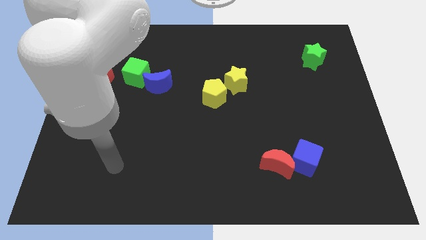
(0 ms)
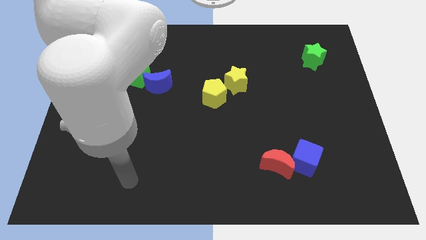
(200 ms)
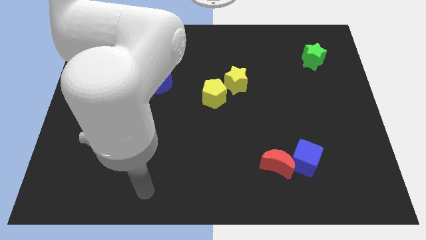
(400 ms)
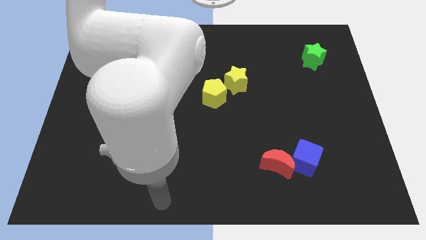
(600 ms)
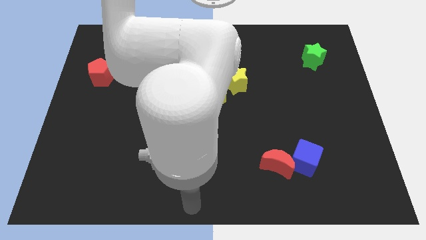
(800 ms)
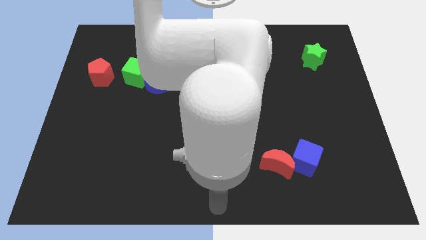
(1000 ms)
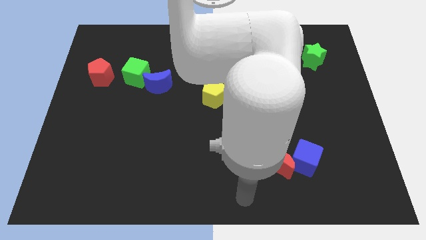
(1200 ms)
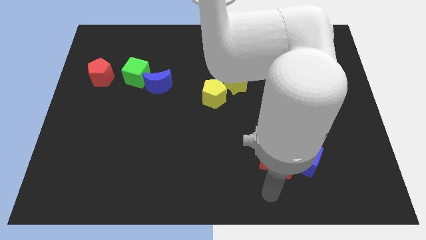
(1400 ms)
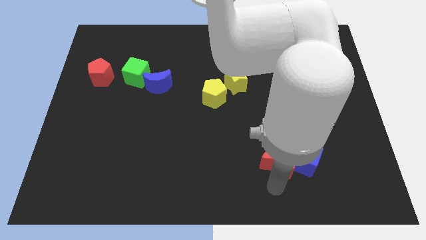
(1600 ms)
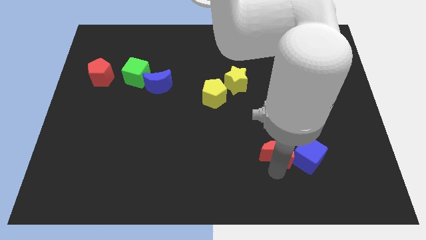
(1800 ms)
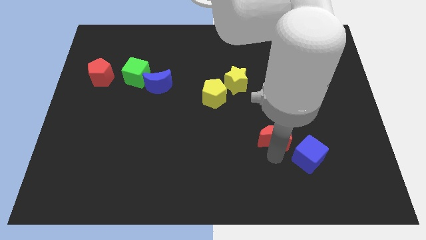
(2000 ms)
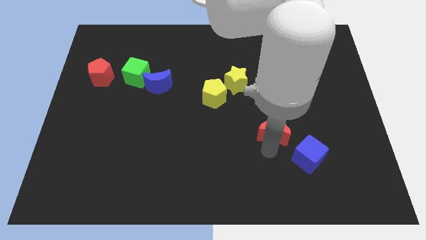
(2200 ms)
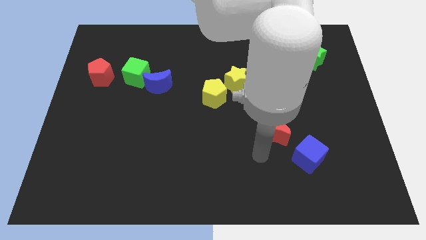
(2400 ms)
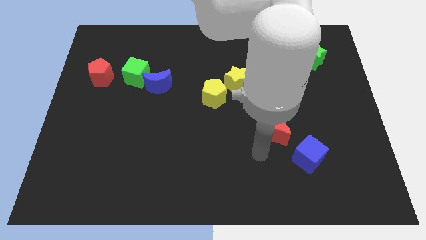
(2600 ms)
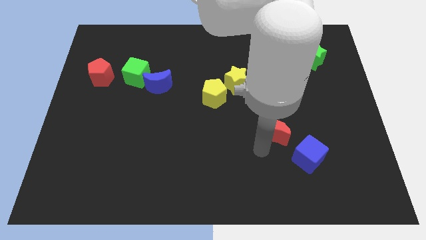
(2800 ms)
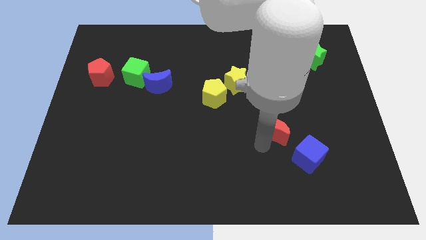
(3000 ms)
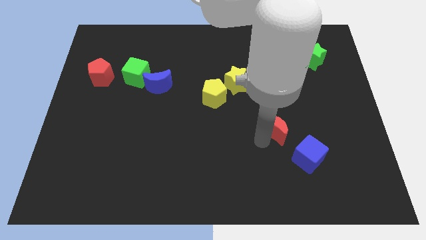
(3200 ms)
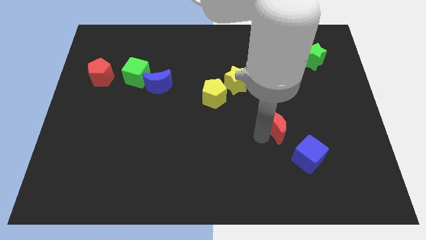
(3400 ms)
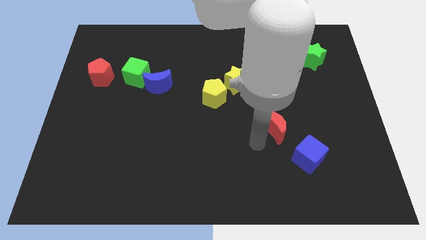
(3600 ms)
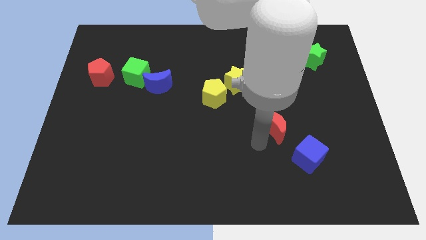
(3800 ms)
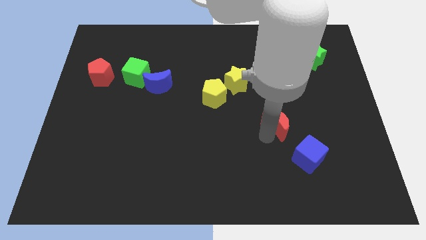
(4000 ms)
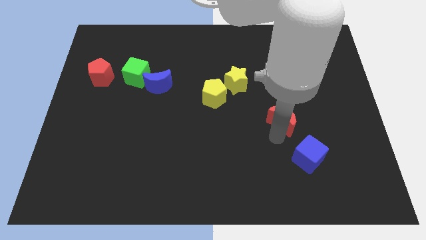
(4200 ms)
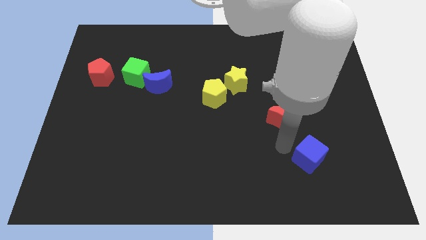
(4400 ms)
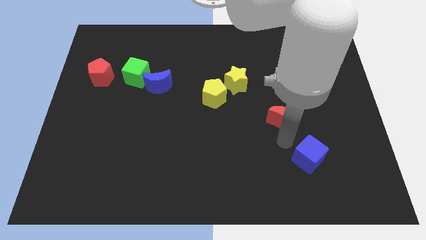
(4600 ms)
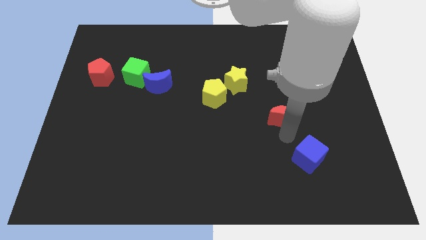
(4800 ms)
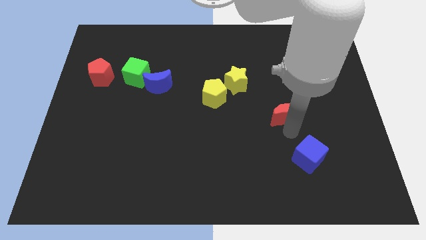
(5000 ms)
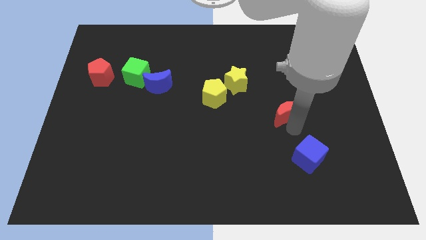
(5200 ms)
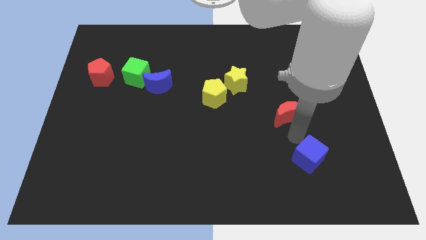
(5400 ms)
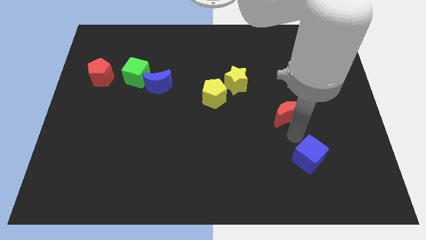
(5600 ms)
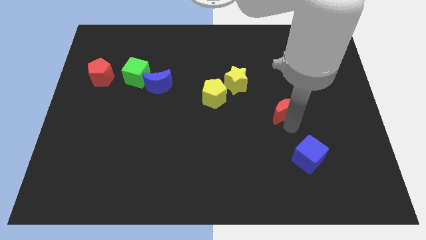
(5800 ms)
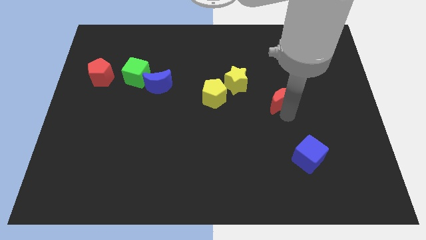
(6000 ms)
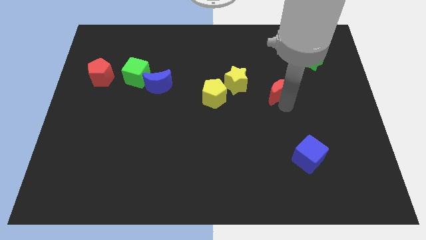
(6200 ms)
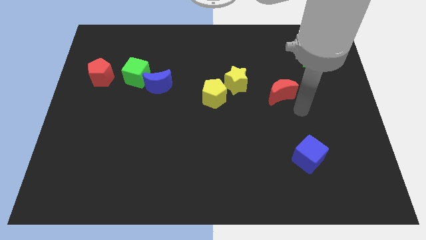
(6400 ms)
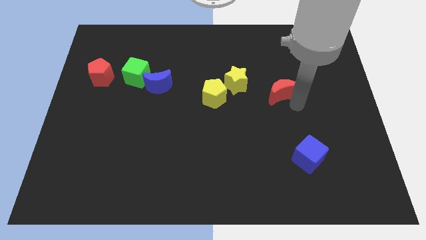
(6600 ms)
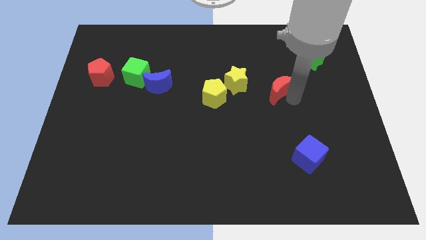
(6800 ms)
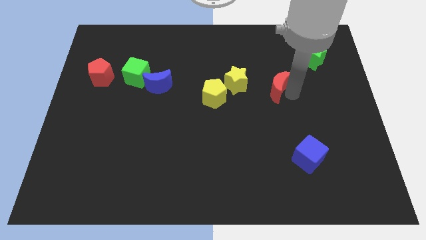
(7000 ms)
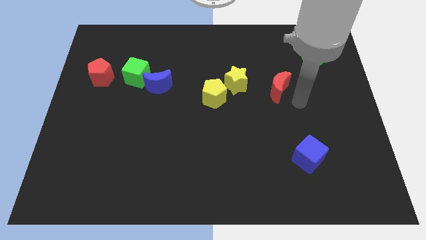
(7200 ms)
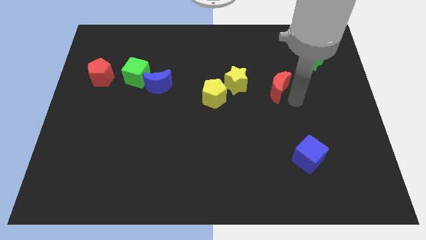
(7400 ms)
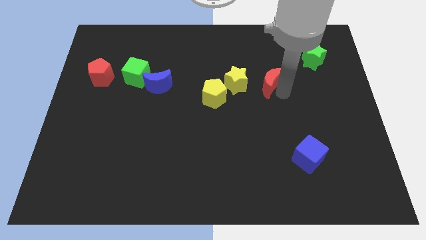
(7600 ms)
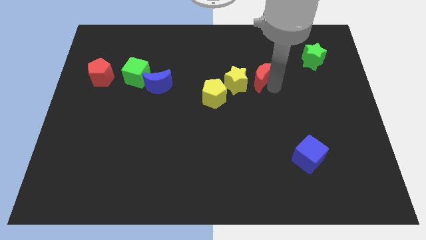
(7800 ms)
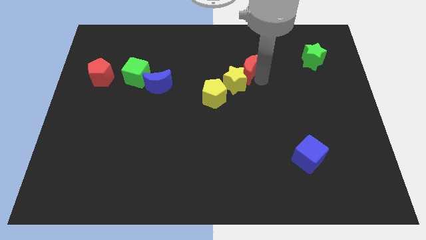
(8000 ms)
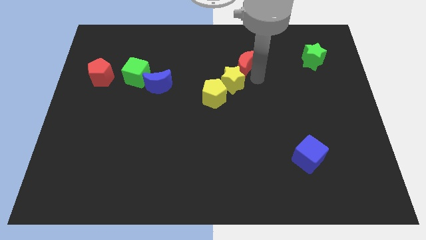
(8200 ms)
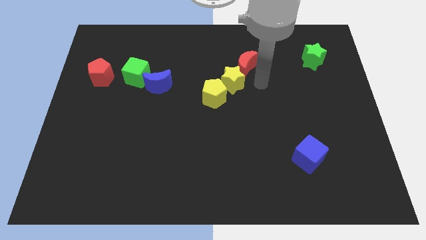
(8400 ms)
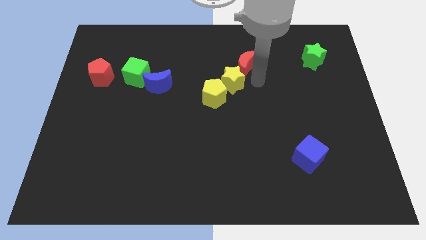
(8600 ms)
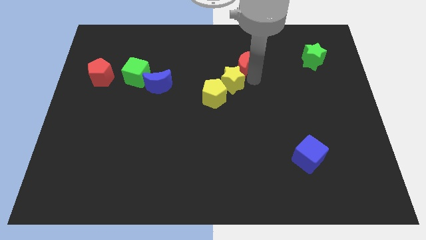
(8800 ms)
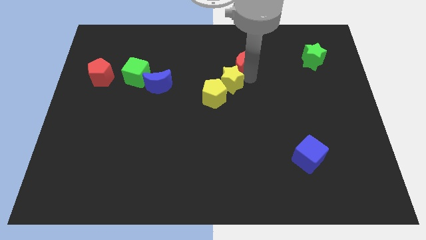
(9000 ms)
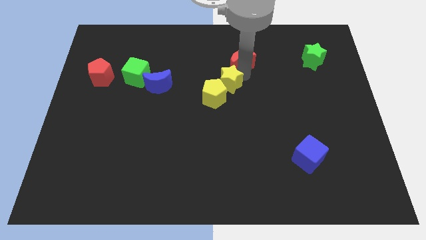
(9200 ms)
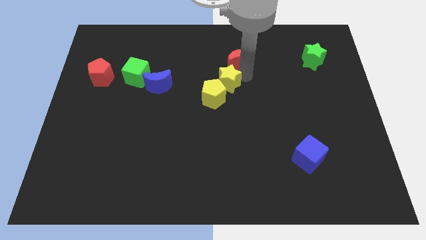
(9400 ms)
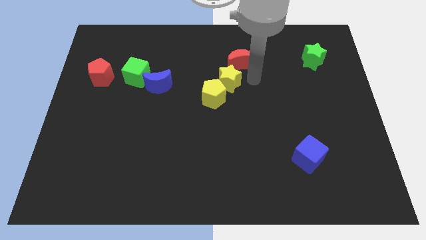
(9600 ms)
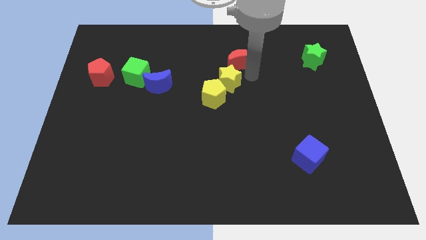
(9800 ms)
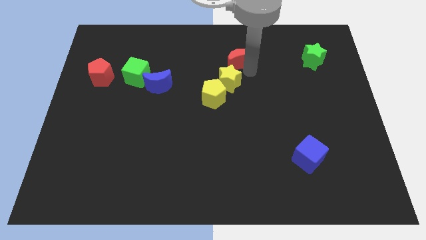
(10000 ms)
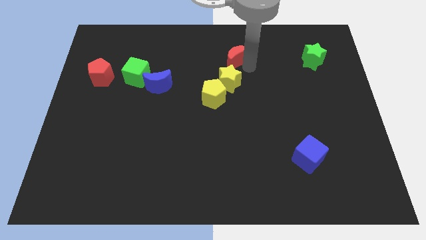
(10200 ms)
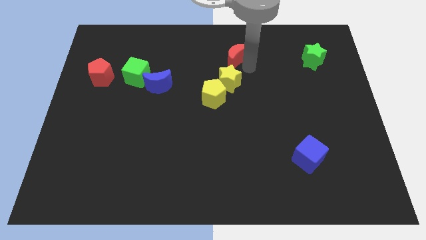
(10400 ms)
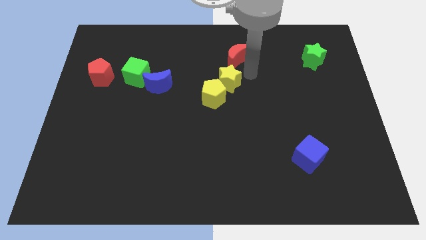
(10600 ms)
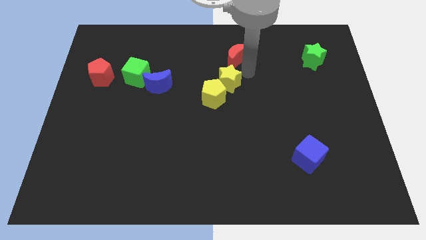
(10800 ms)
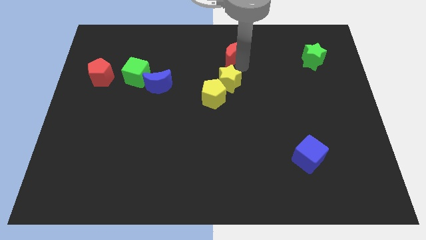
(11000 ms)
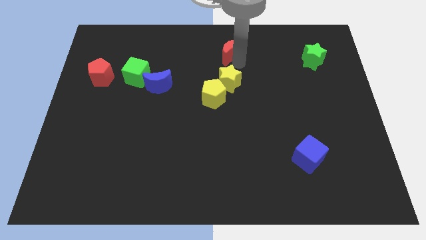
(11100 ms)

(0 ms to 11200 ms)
slide the red moon to the top

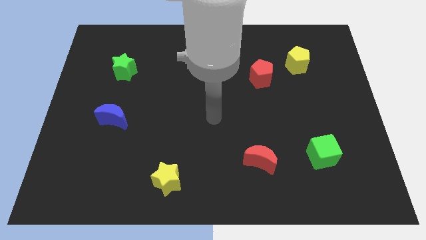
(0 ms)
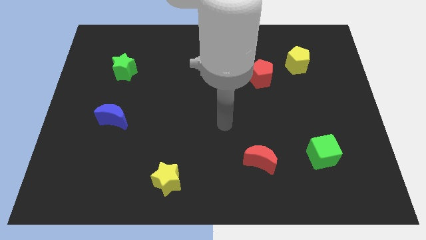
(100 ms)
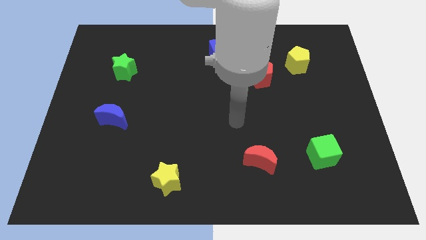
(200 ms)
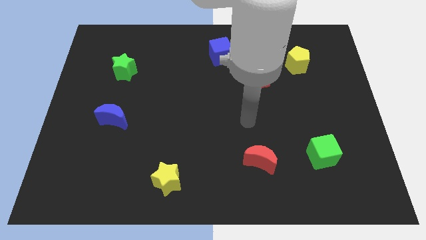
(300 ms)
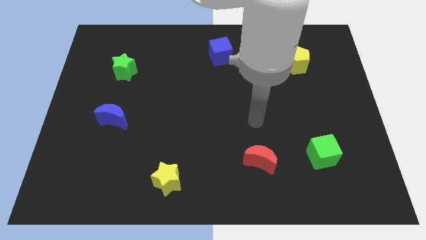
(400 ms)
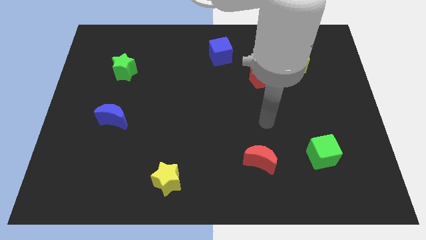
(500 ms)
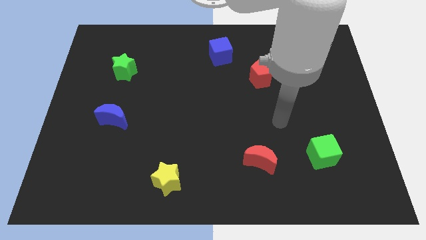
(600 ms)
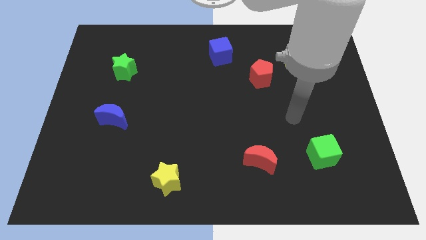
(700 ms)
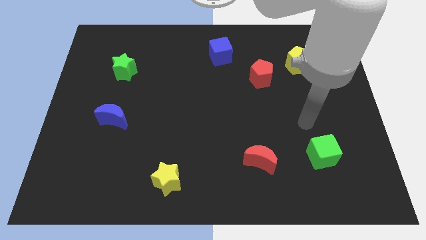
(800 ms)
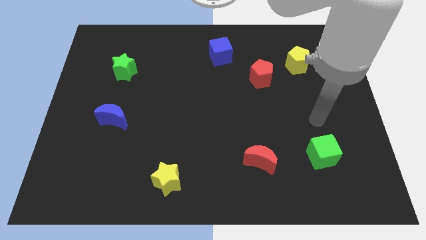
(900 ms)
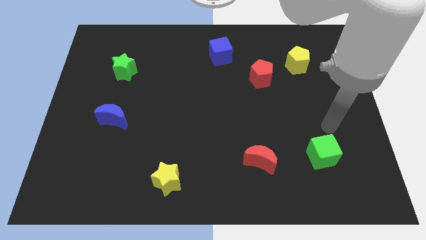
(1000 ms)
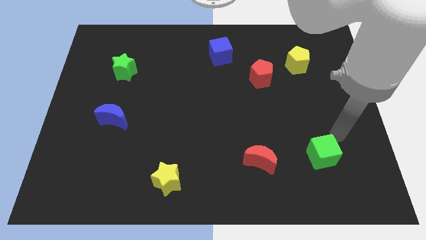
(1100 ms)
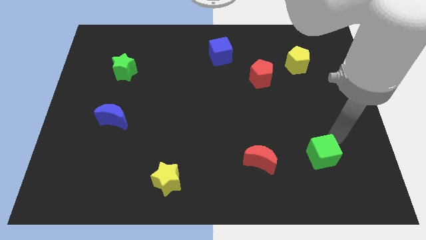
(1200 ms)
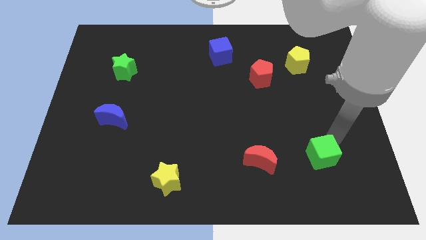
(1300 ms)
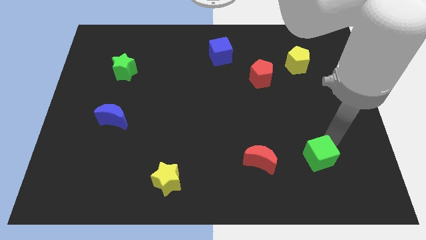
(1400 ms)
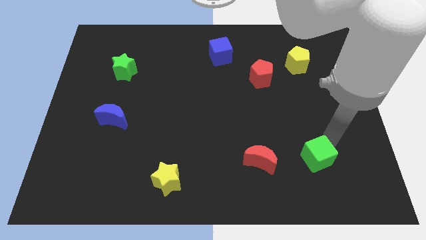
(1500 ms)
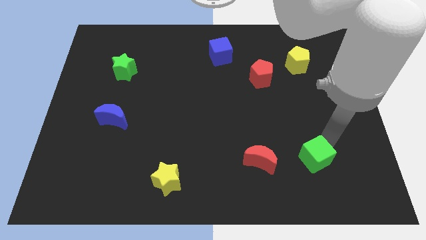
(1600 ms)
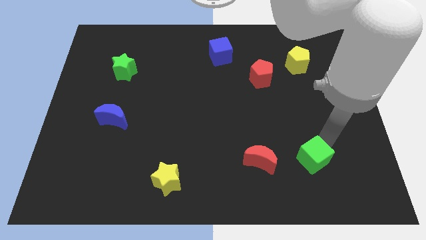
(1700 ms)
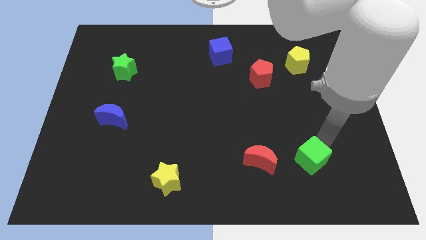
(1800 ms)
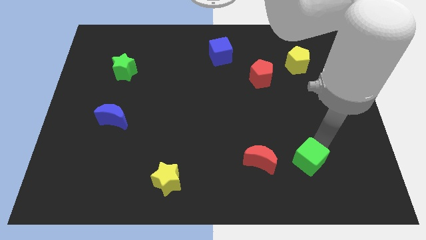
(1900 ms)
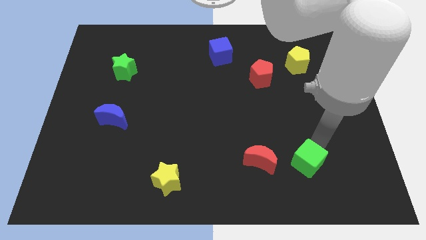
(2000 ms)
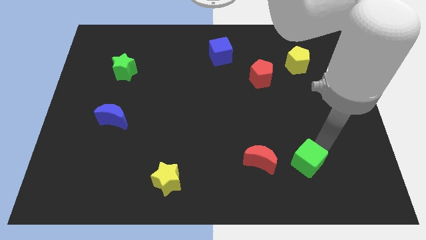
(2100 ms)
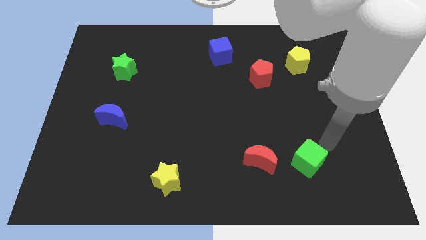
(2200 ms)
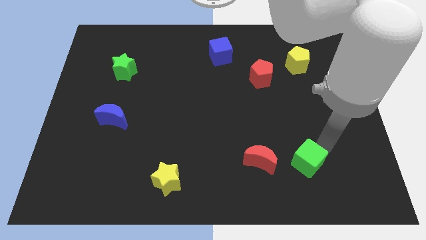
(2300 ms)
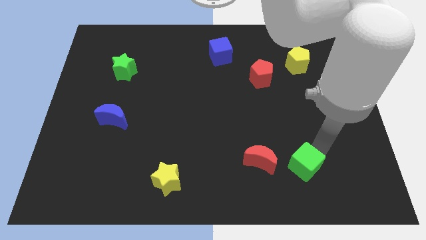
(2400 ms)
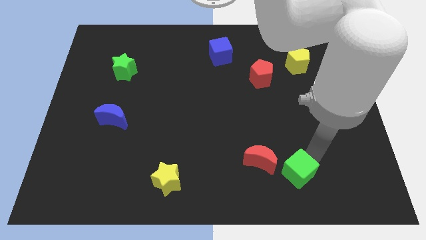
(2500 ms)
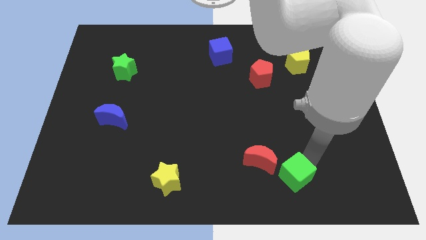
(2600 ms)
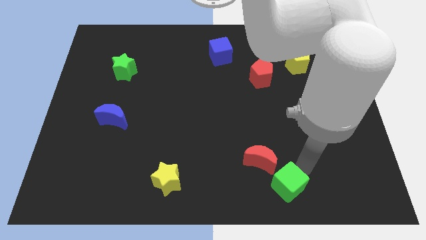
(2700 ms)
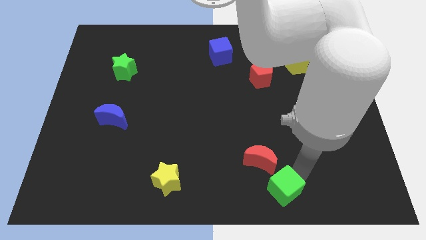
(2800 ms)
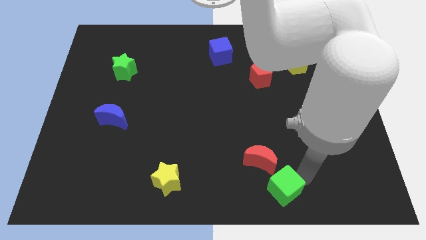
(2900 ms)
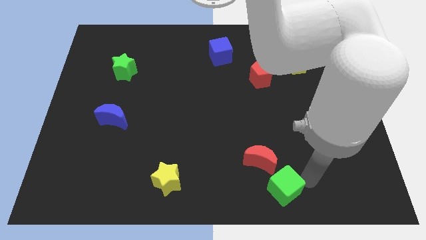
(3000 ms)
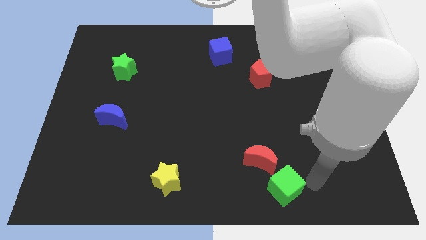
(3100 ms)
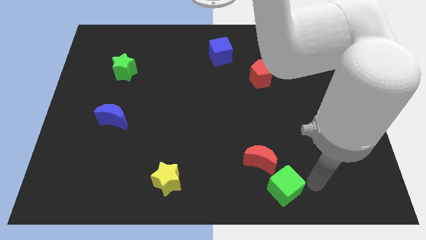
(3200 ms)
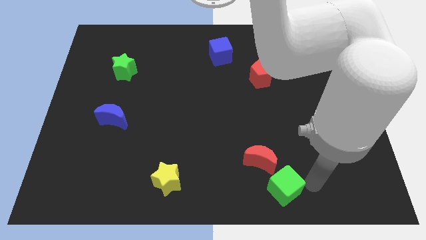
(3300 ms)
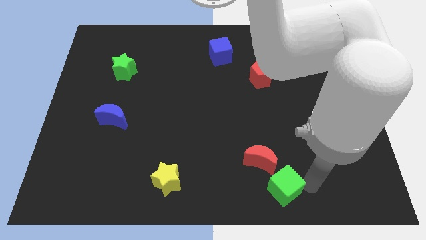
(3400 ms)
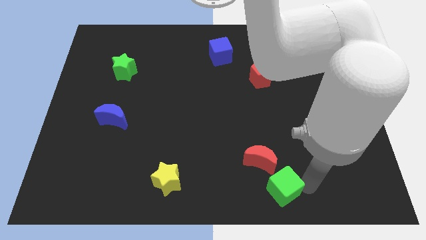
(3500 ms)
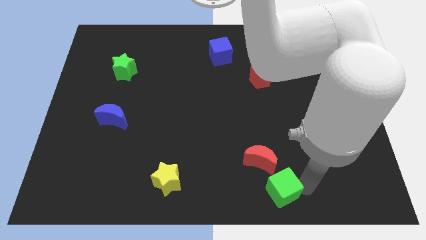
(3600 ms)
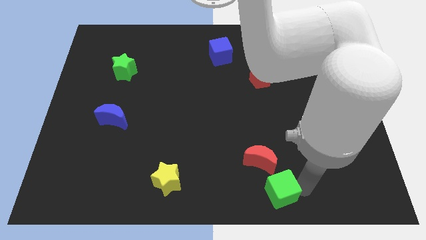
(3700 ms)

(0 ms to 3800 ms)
put the green cube to the bottom
